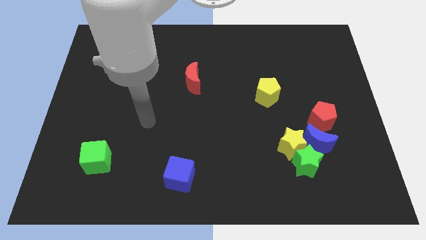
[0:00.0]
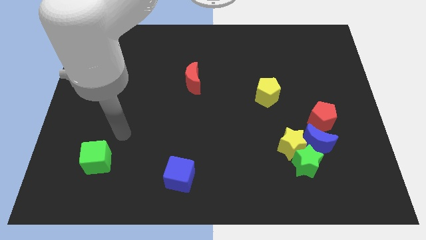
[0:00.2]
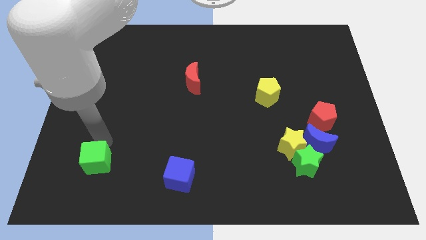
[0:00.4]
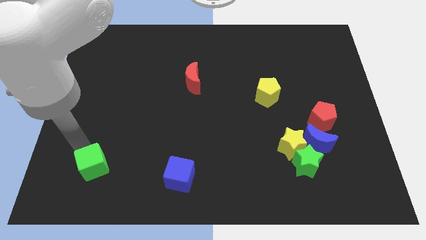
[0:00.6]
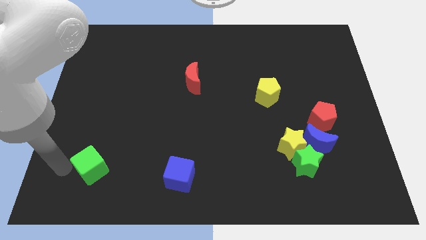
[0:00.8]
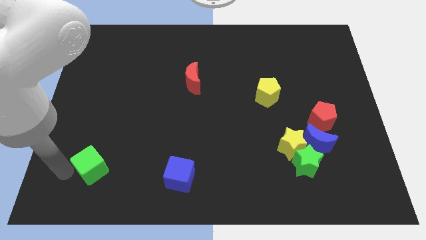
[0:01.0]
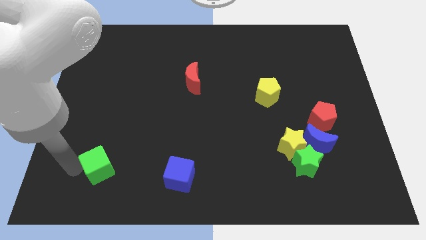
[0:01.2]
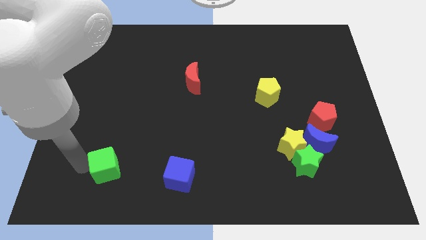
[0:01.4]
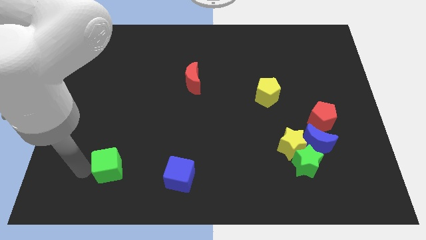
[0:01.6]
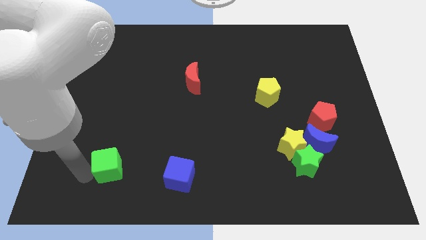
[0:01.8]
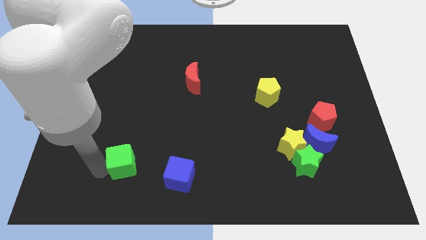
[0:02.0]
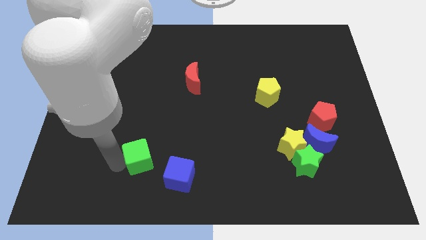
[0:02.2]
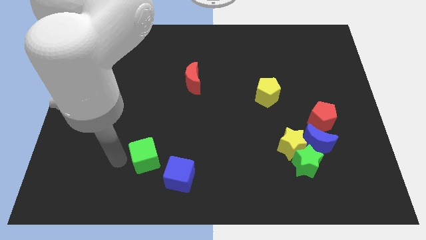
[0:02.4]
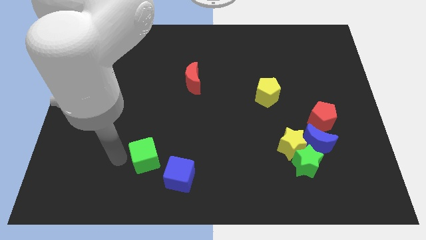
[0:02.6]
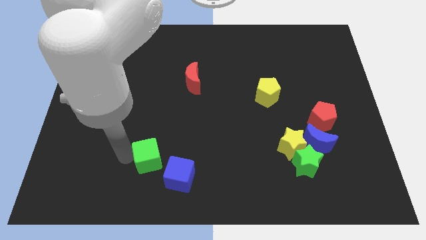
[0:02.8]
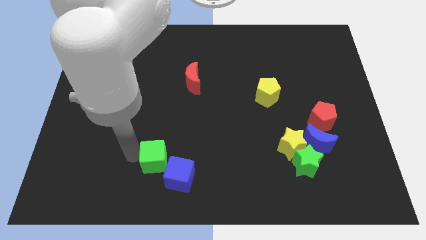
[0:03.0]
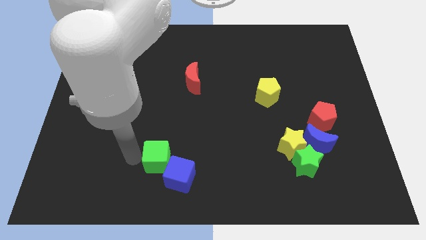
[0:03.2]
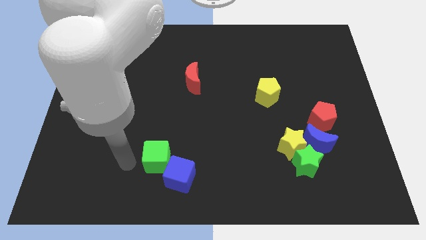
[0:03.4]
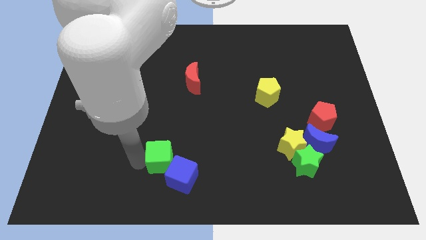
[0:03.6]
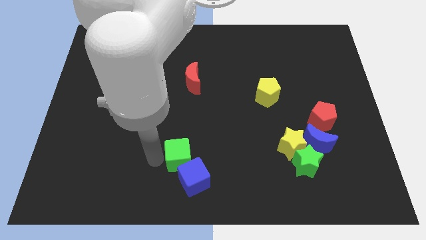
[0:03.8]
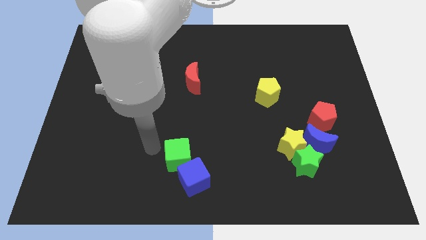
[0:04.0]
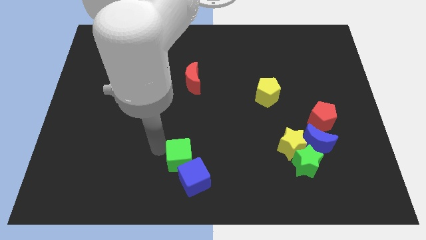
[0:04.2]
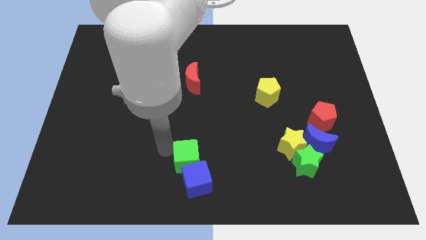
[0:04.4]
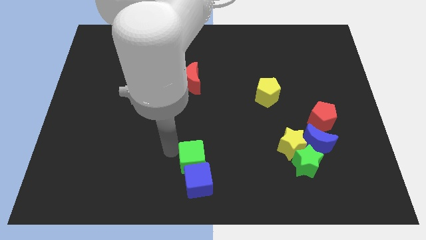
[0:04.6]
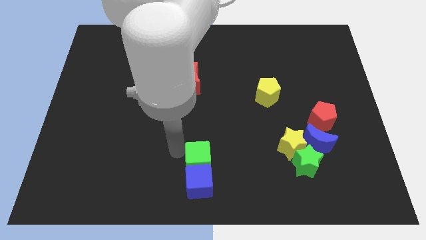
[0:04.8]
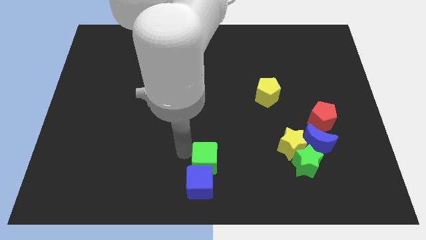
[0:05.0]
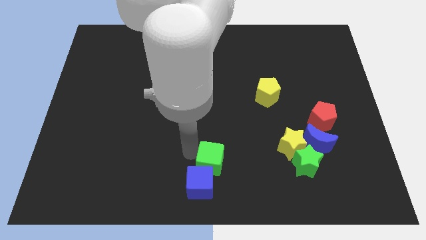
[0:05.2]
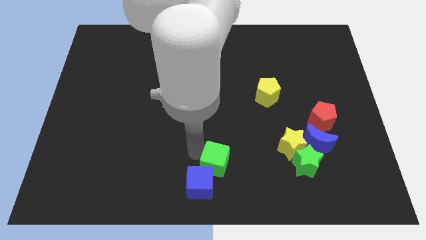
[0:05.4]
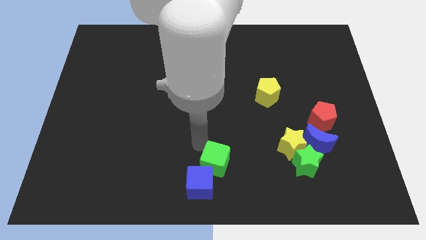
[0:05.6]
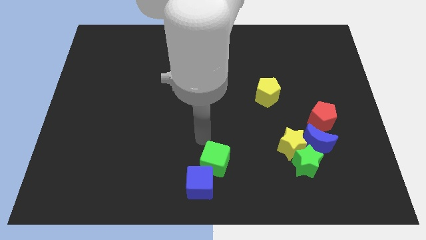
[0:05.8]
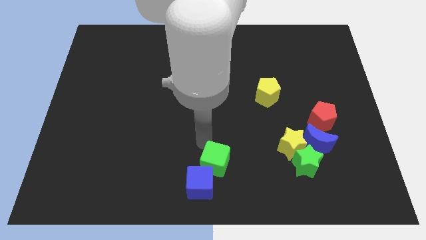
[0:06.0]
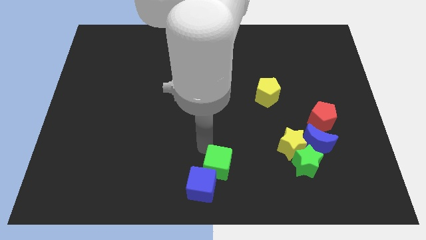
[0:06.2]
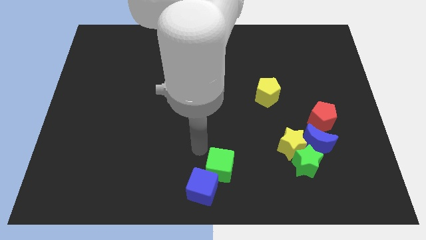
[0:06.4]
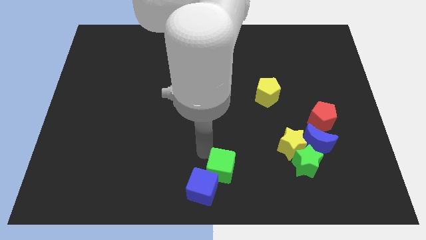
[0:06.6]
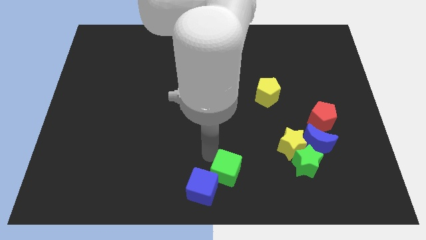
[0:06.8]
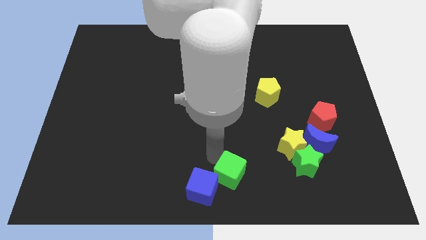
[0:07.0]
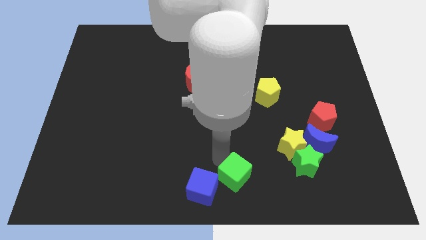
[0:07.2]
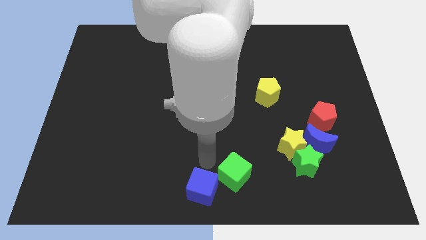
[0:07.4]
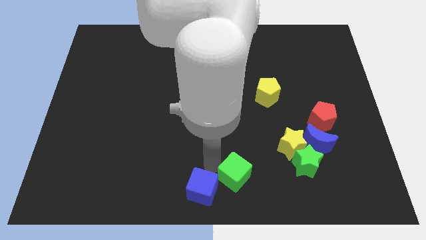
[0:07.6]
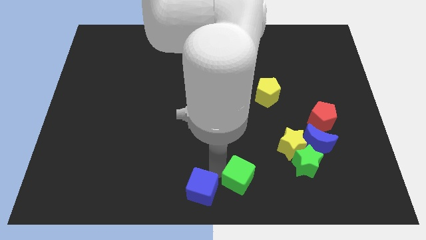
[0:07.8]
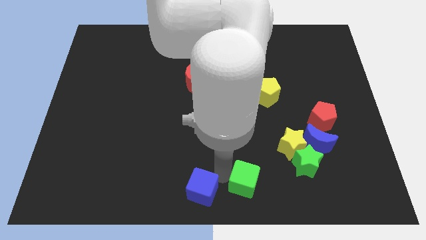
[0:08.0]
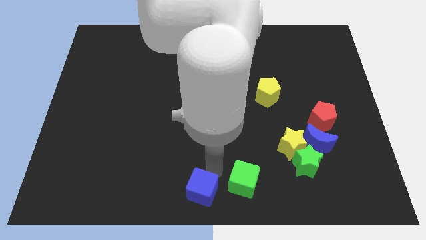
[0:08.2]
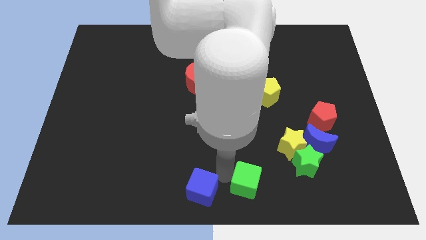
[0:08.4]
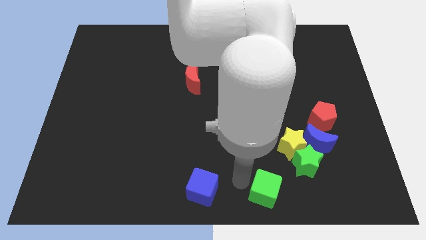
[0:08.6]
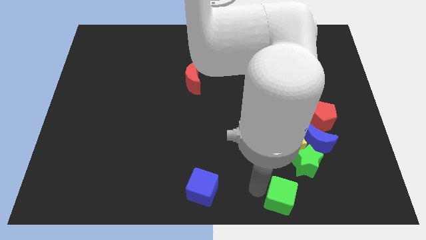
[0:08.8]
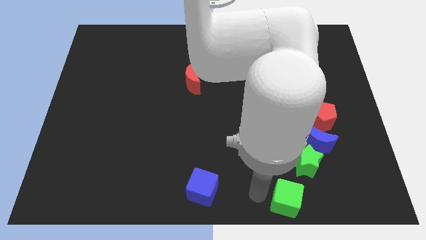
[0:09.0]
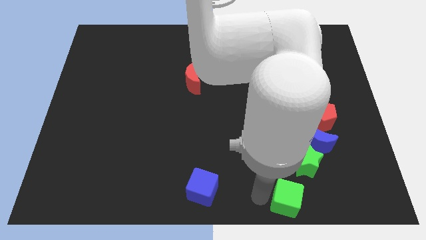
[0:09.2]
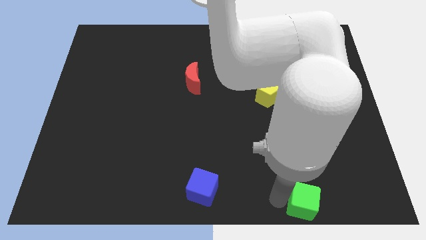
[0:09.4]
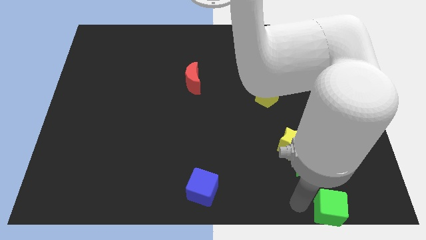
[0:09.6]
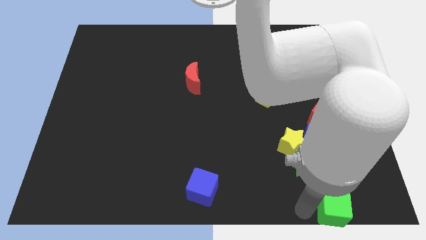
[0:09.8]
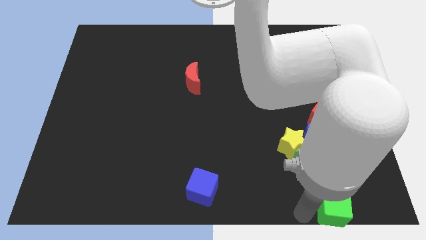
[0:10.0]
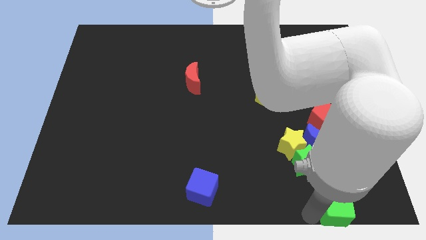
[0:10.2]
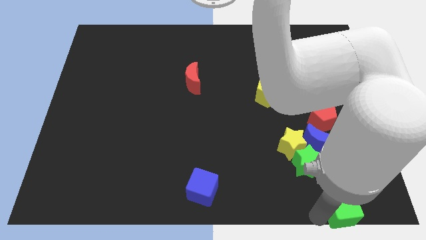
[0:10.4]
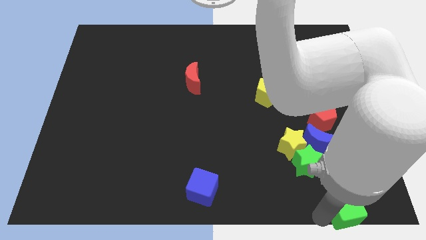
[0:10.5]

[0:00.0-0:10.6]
push the green cube to the bottom right

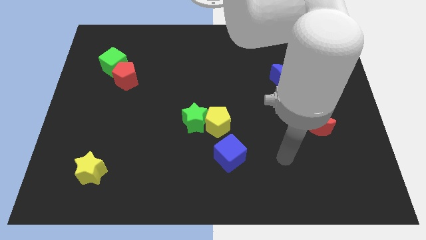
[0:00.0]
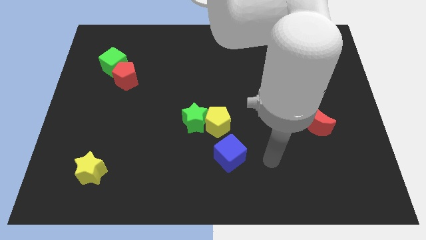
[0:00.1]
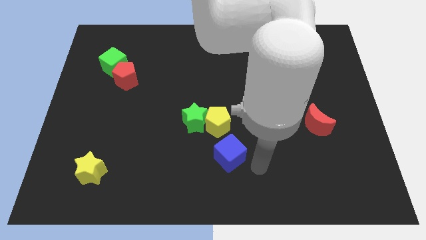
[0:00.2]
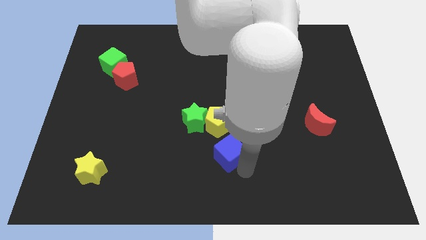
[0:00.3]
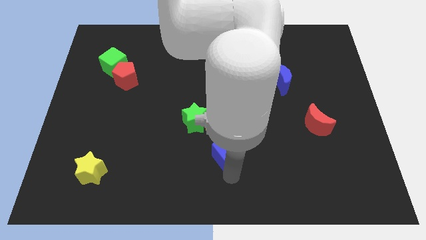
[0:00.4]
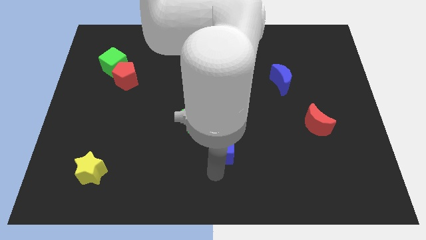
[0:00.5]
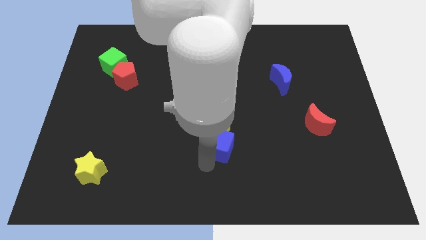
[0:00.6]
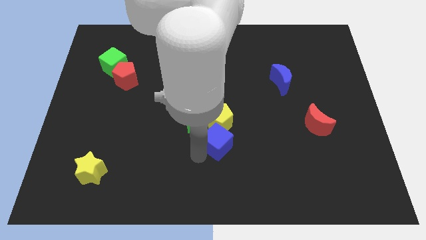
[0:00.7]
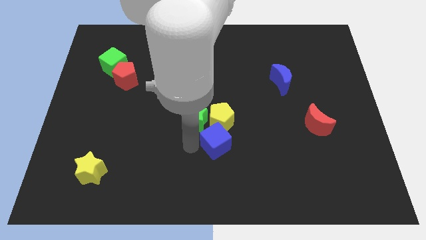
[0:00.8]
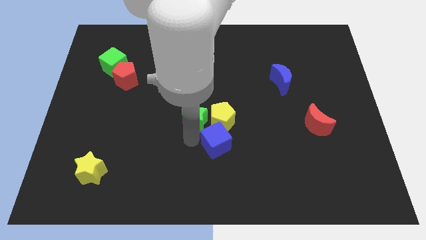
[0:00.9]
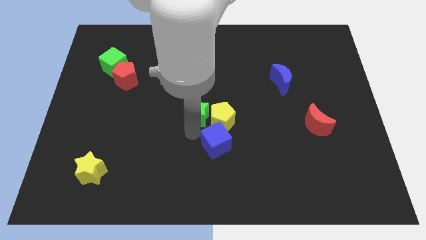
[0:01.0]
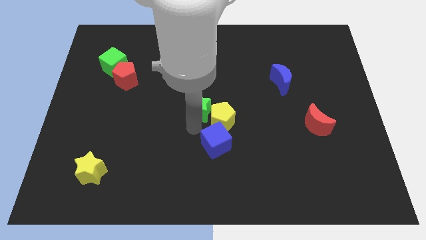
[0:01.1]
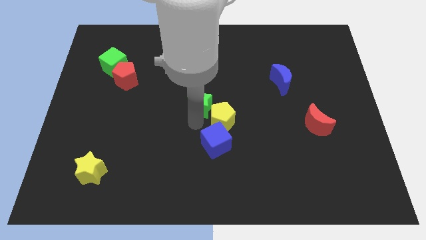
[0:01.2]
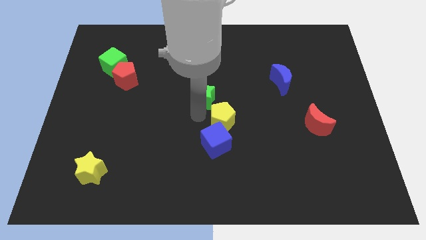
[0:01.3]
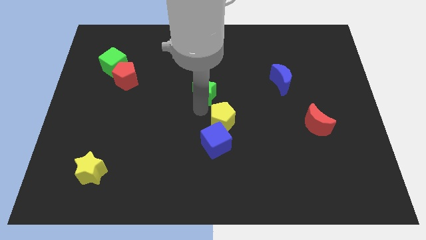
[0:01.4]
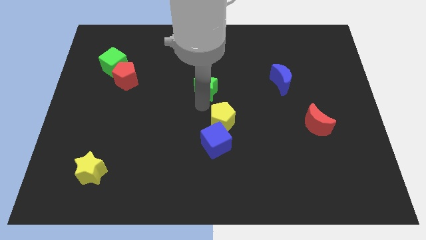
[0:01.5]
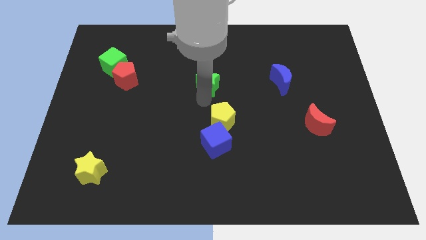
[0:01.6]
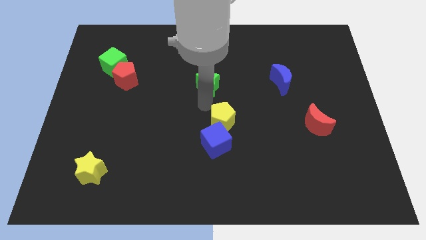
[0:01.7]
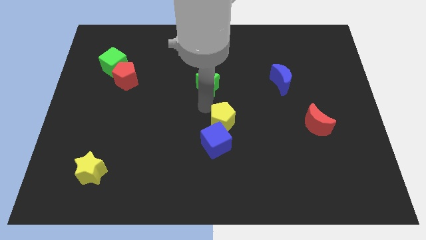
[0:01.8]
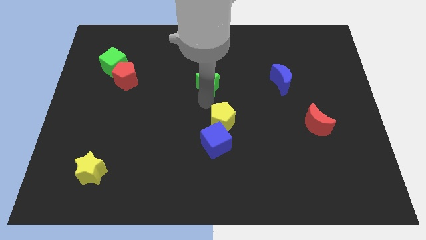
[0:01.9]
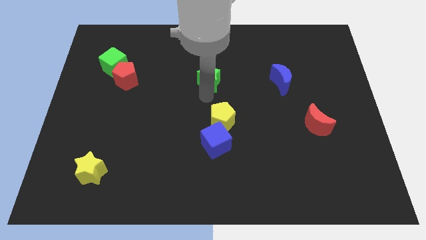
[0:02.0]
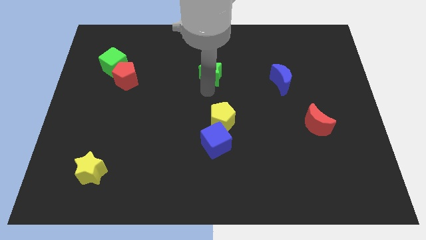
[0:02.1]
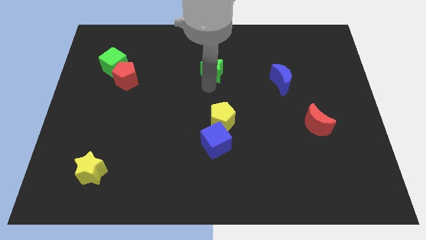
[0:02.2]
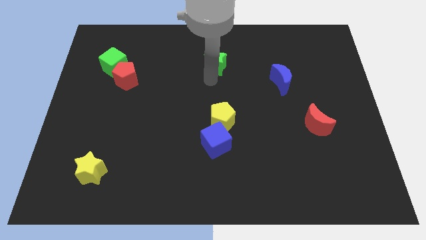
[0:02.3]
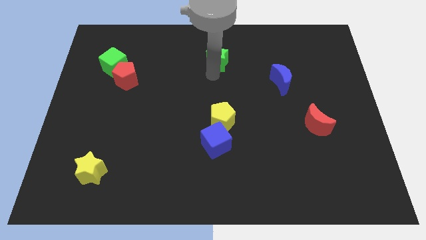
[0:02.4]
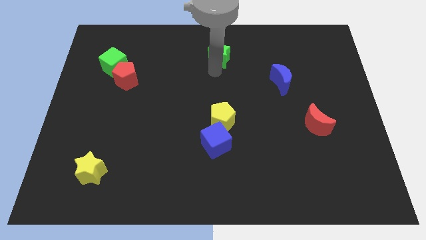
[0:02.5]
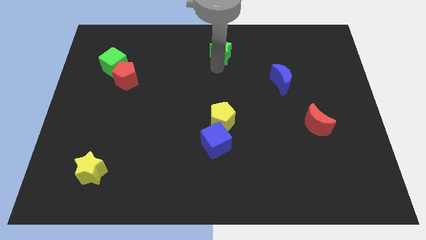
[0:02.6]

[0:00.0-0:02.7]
move the green star to the top
